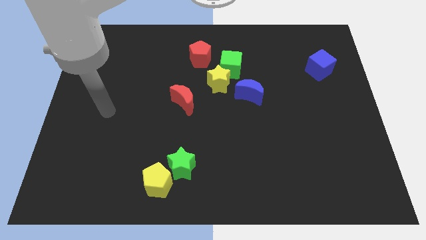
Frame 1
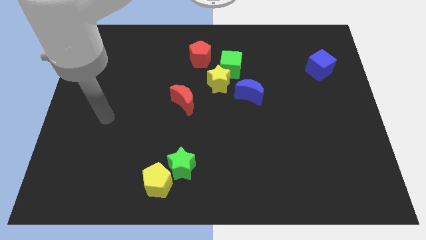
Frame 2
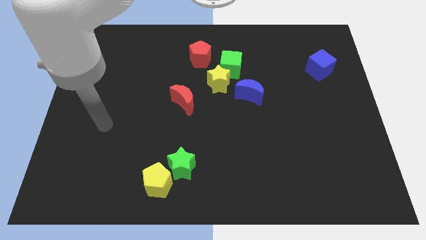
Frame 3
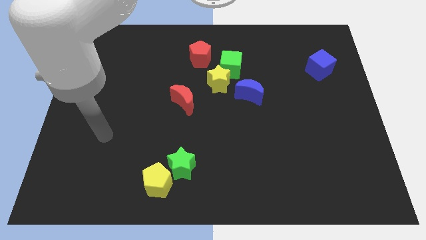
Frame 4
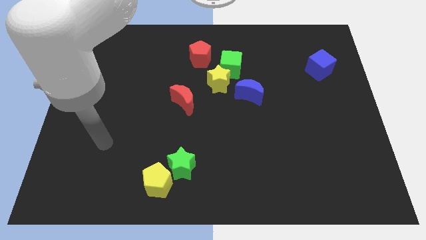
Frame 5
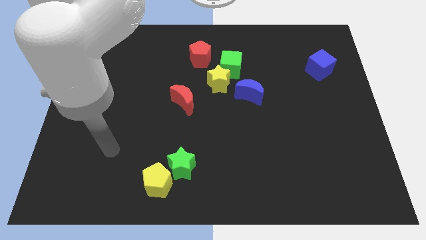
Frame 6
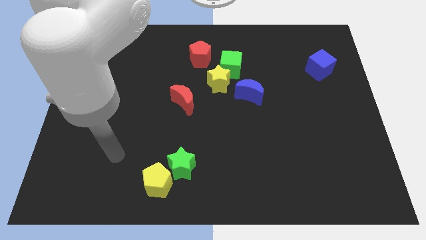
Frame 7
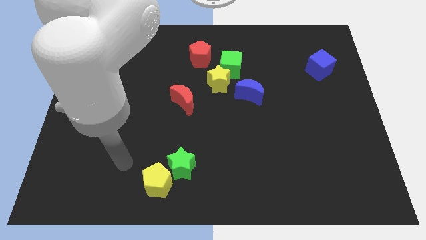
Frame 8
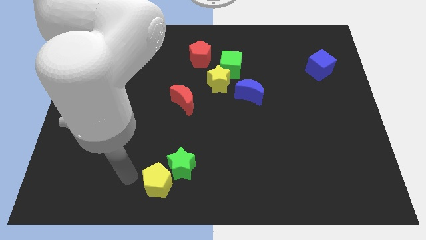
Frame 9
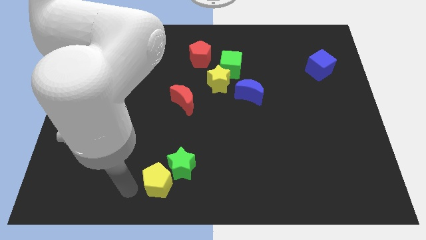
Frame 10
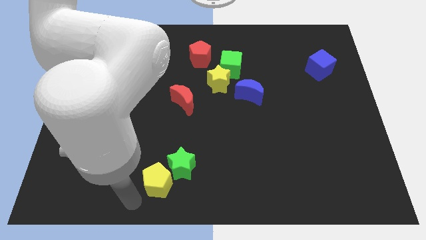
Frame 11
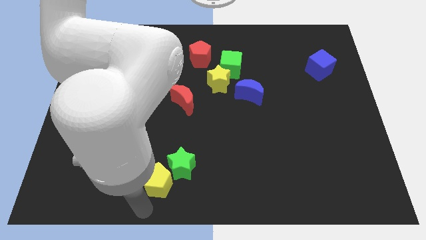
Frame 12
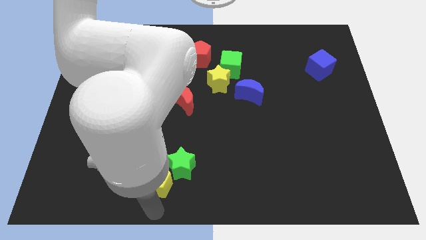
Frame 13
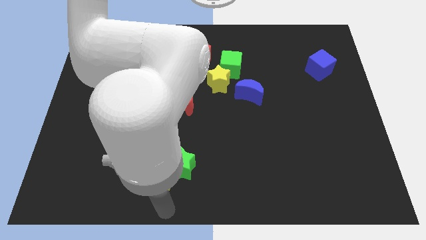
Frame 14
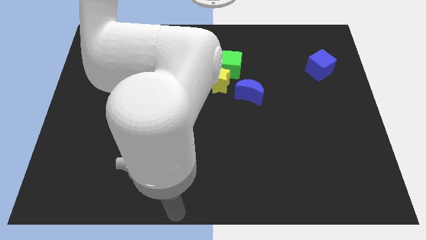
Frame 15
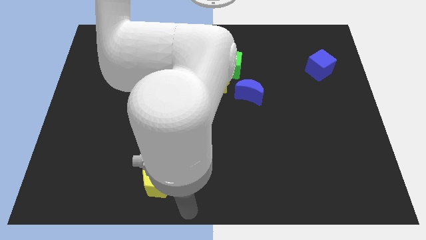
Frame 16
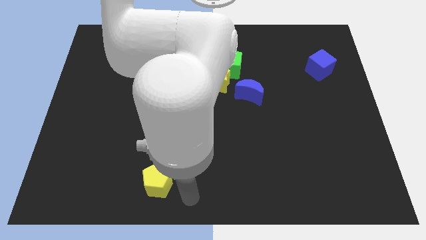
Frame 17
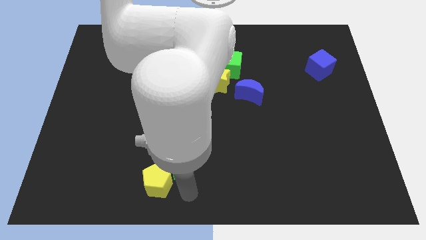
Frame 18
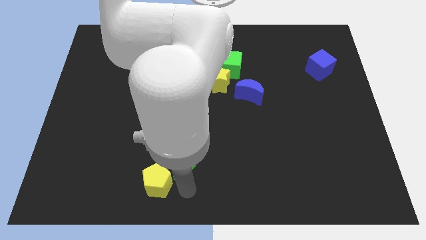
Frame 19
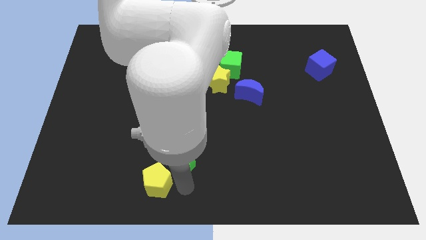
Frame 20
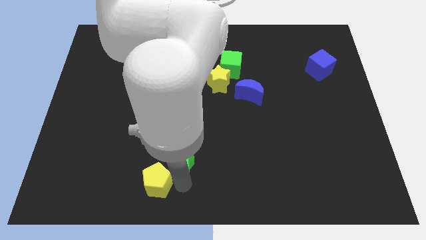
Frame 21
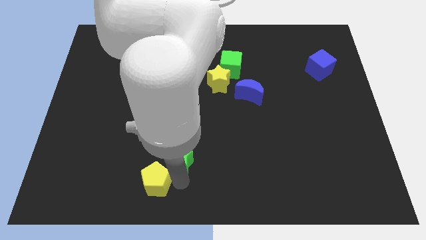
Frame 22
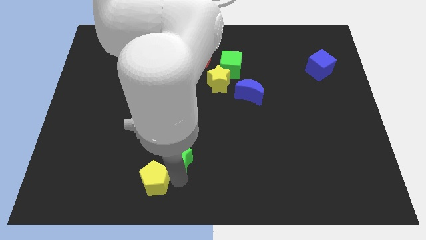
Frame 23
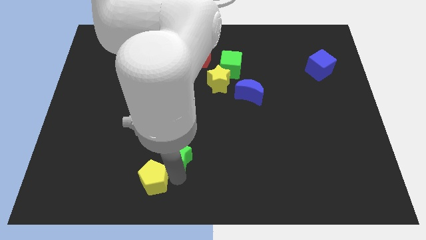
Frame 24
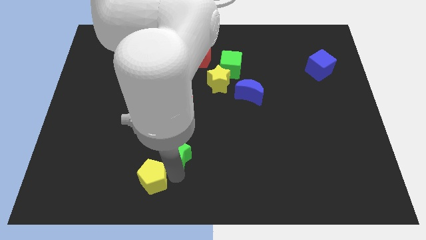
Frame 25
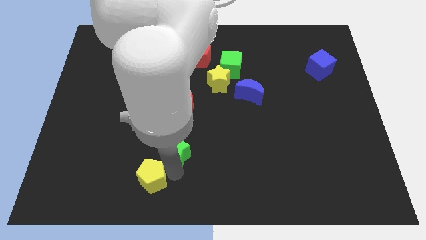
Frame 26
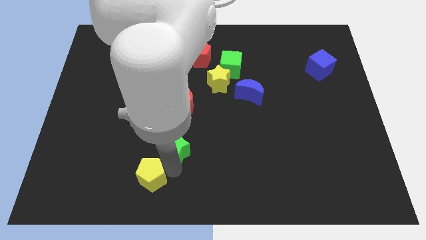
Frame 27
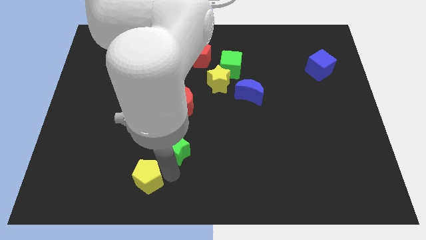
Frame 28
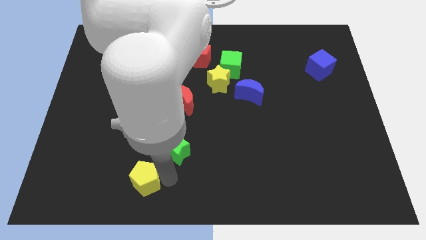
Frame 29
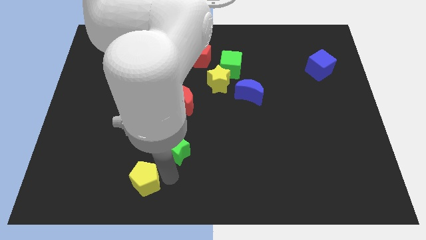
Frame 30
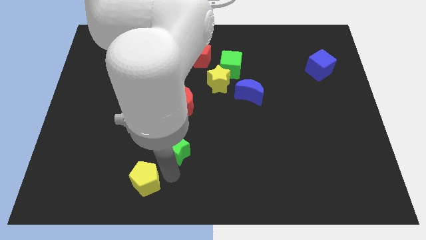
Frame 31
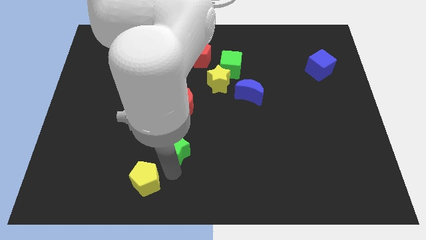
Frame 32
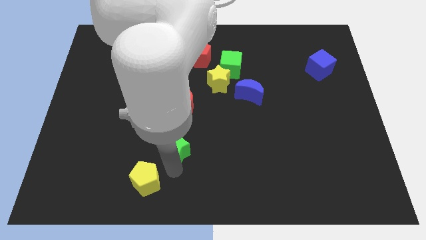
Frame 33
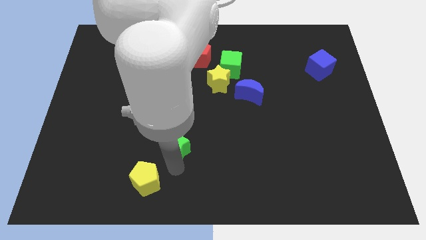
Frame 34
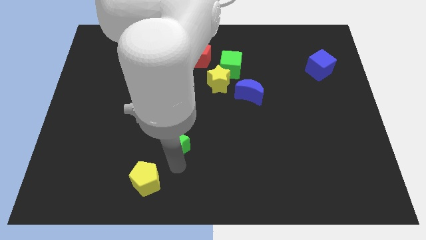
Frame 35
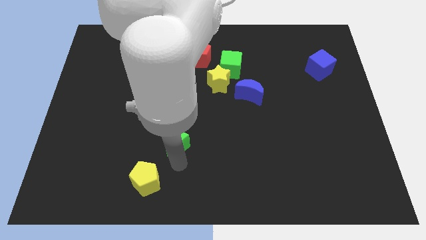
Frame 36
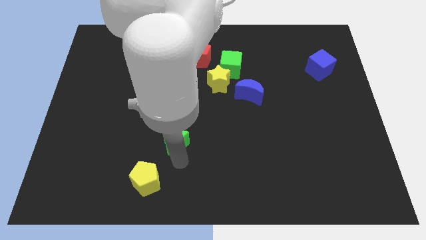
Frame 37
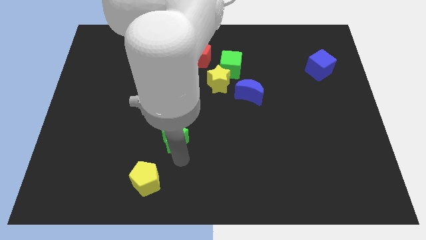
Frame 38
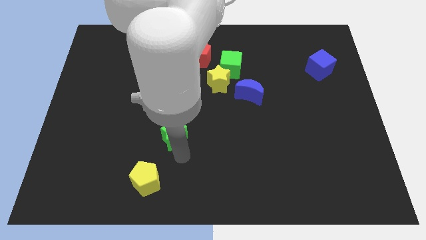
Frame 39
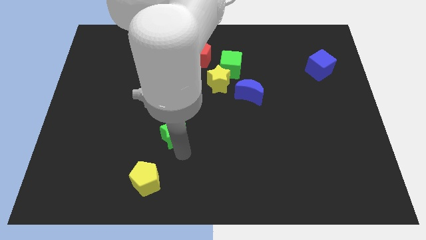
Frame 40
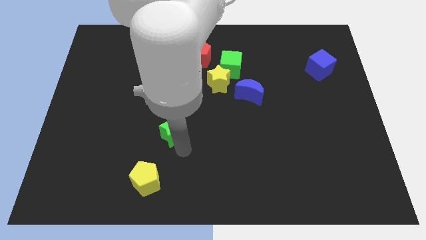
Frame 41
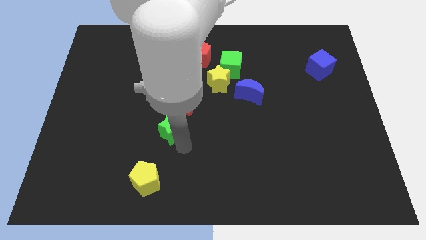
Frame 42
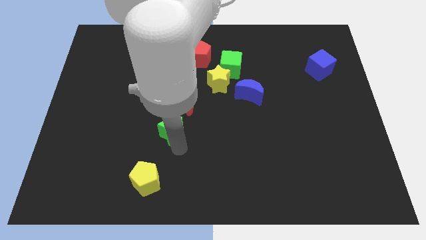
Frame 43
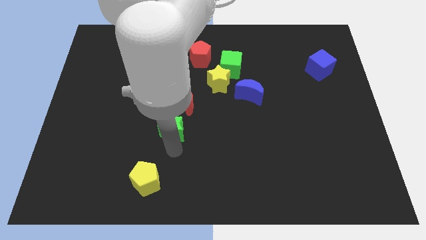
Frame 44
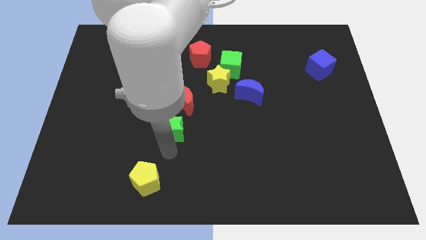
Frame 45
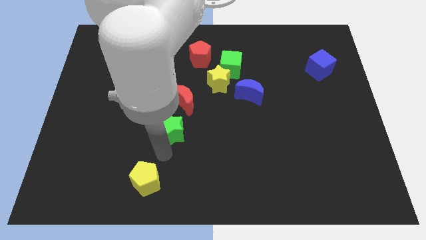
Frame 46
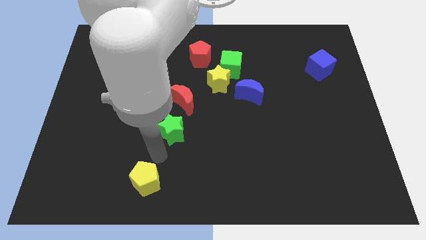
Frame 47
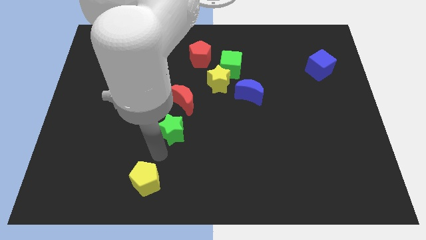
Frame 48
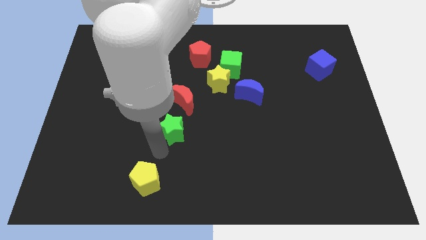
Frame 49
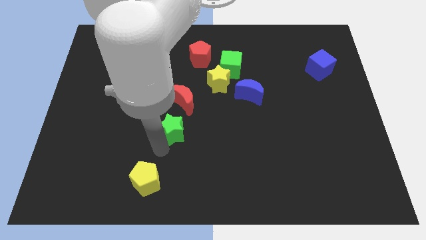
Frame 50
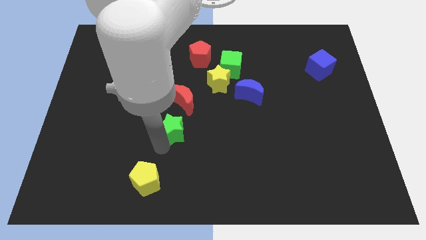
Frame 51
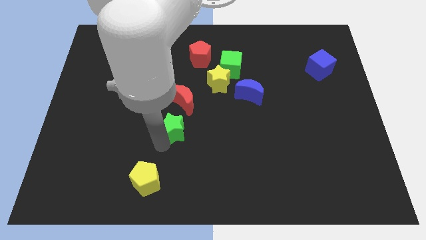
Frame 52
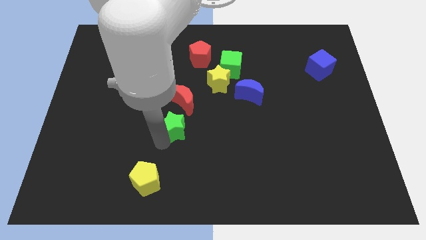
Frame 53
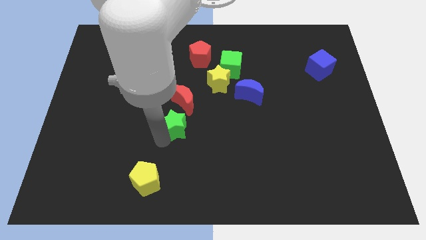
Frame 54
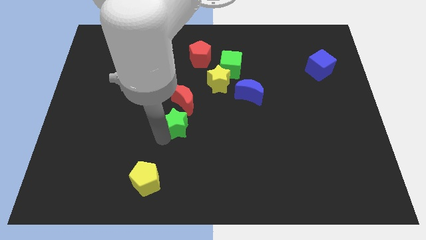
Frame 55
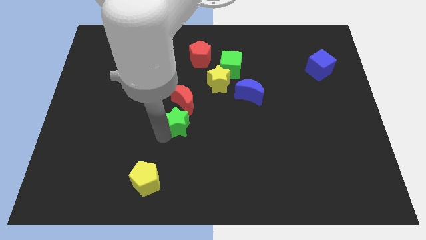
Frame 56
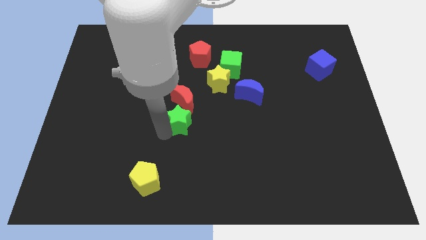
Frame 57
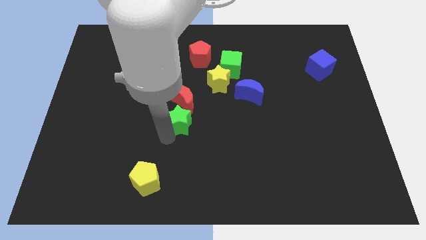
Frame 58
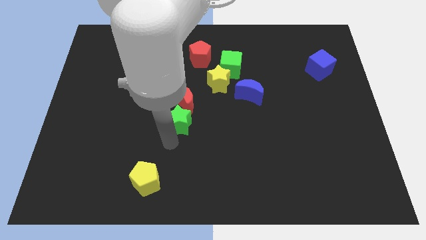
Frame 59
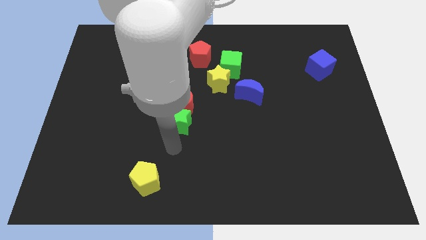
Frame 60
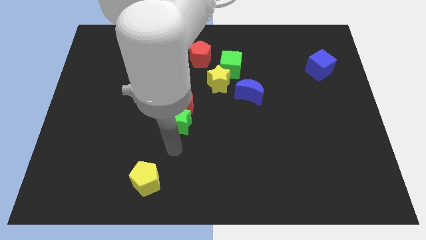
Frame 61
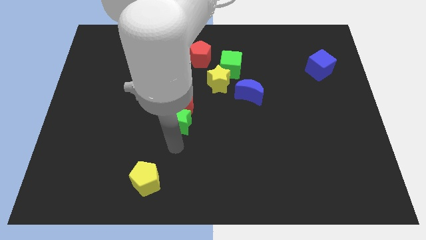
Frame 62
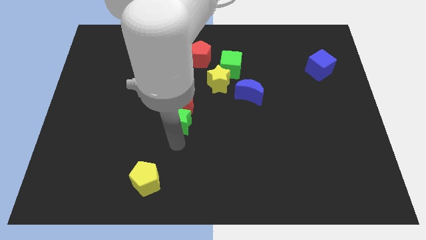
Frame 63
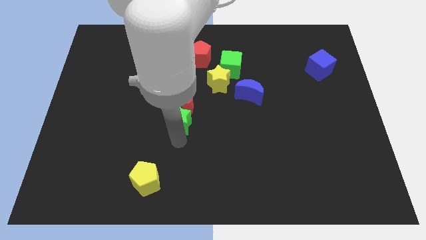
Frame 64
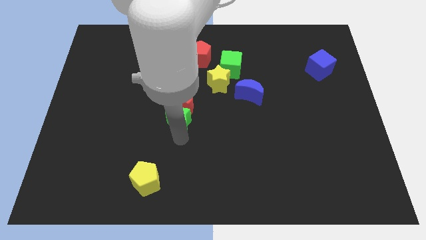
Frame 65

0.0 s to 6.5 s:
move the green star towards the red moon

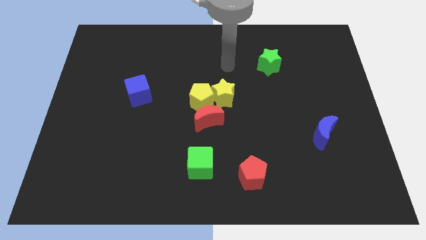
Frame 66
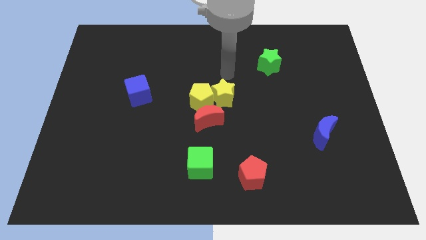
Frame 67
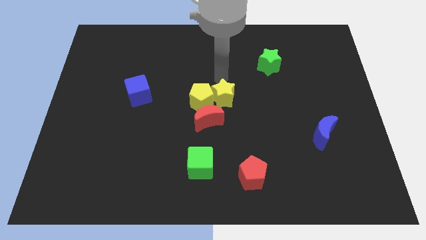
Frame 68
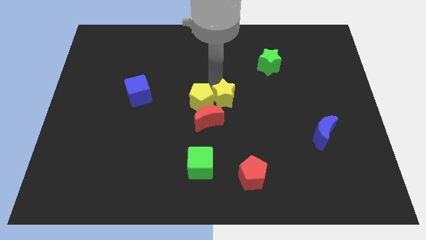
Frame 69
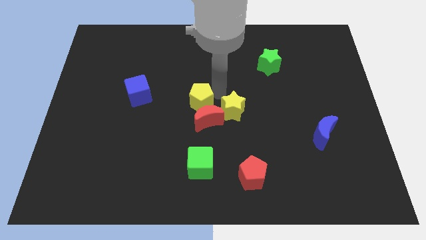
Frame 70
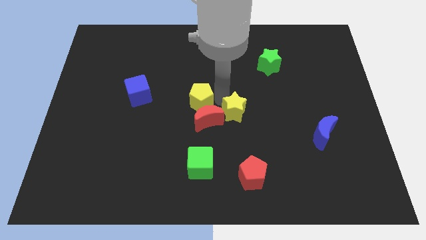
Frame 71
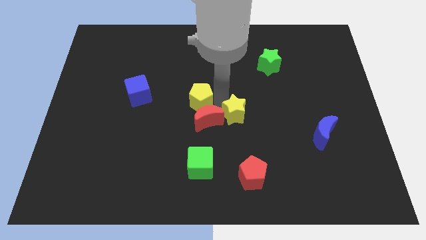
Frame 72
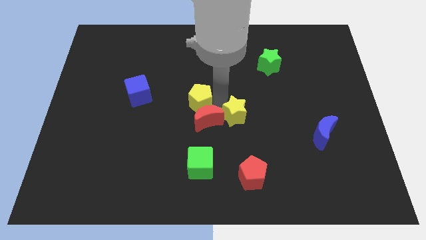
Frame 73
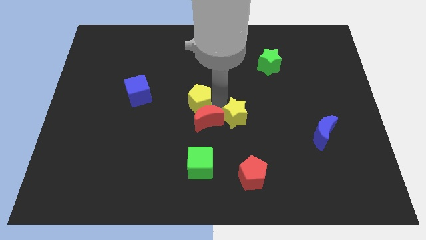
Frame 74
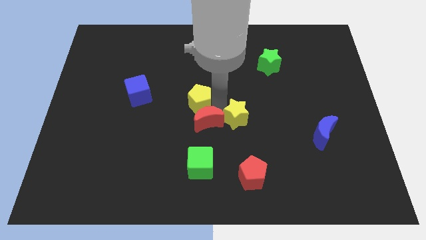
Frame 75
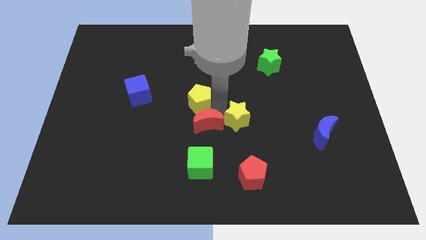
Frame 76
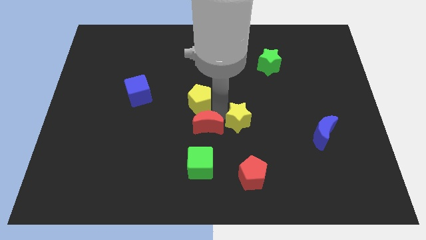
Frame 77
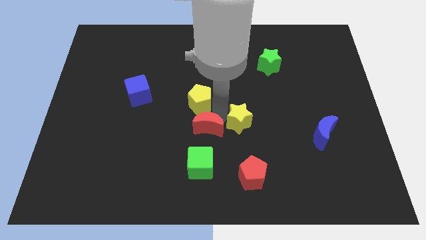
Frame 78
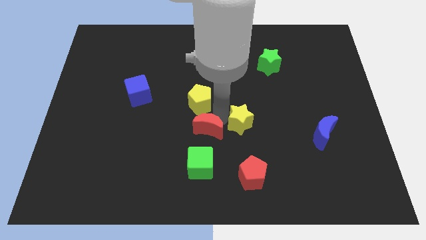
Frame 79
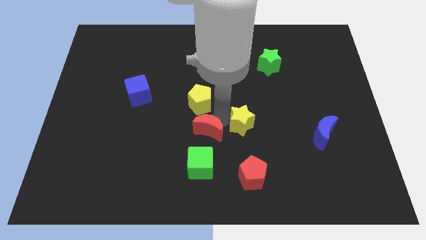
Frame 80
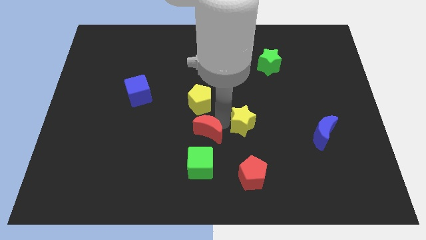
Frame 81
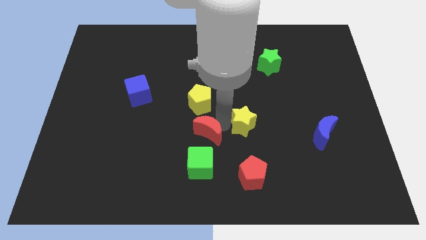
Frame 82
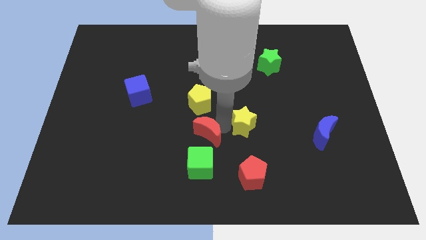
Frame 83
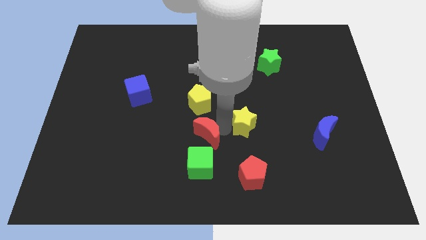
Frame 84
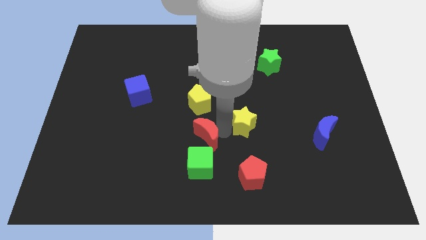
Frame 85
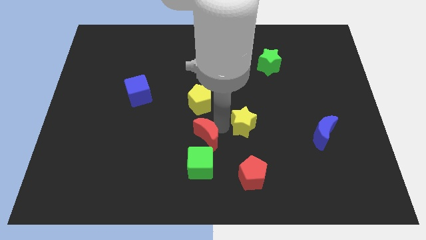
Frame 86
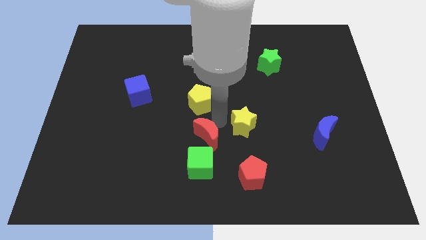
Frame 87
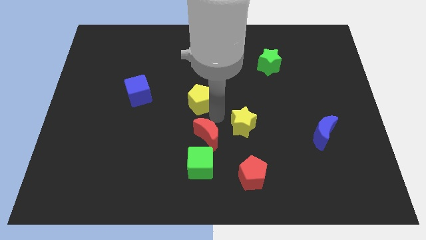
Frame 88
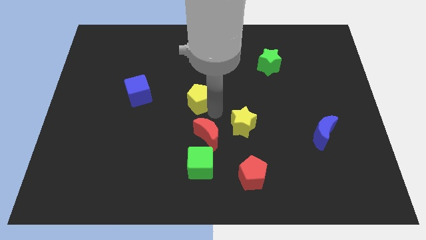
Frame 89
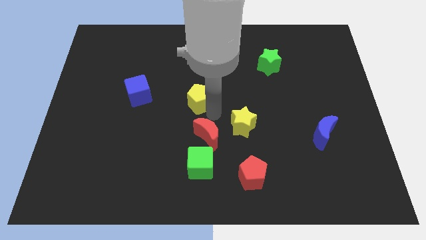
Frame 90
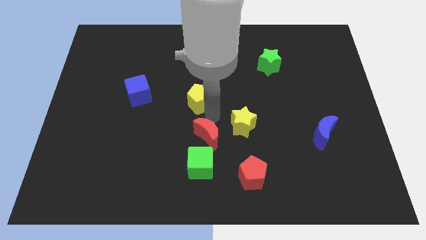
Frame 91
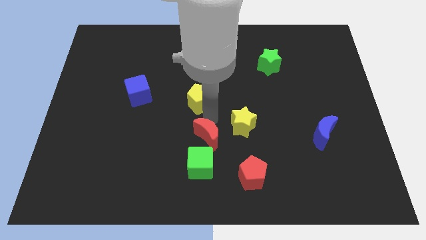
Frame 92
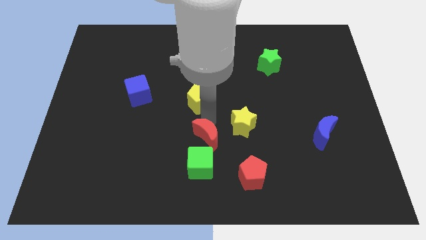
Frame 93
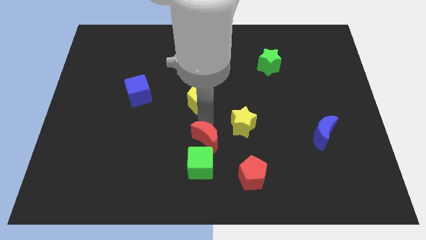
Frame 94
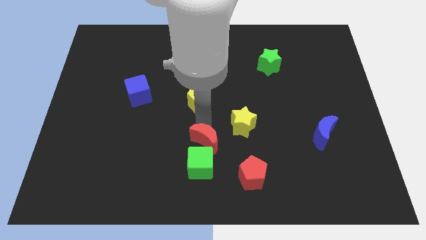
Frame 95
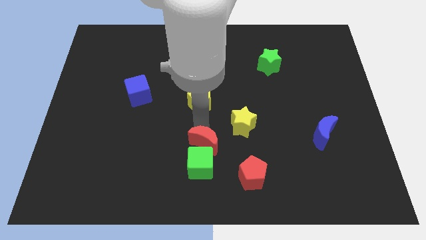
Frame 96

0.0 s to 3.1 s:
put the red moon towards the green cube
